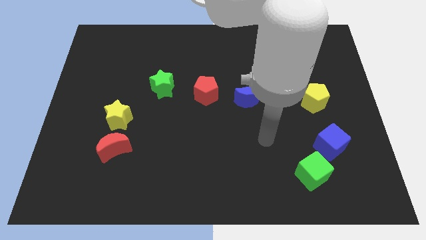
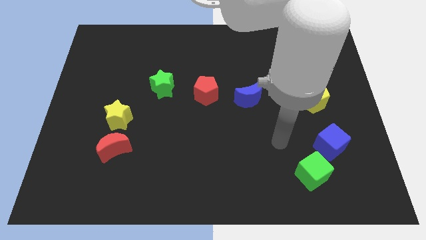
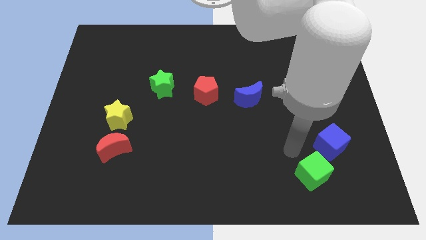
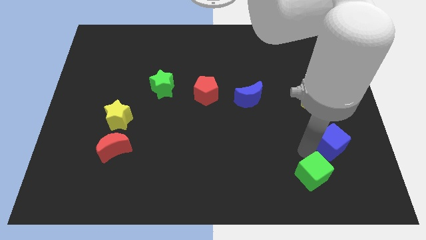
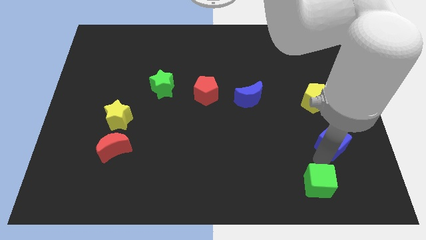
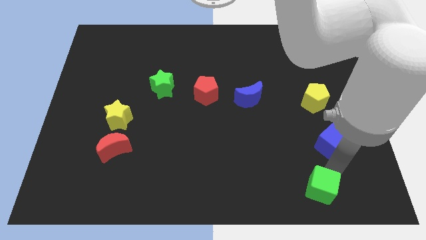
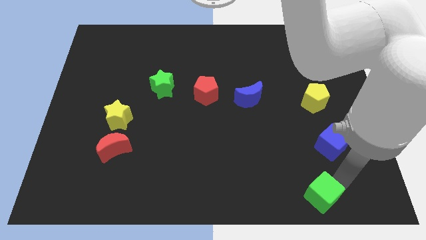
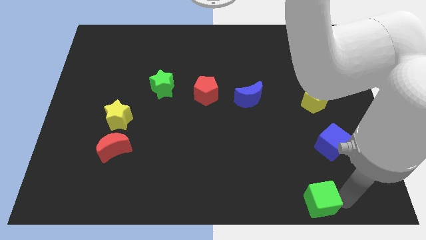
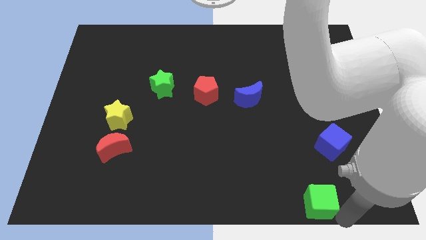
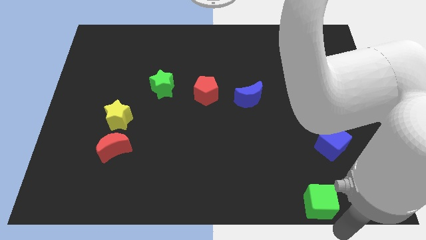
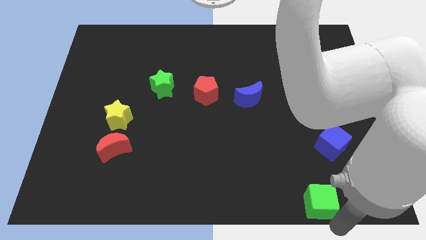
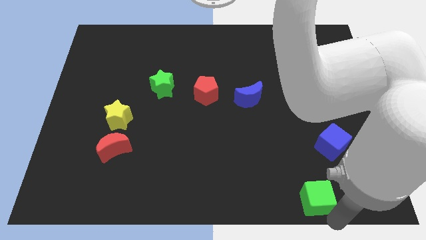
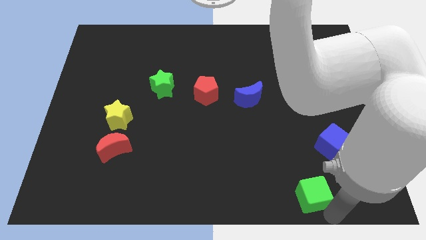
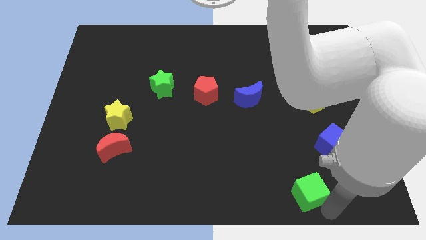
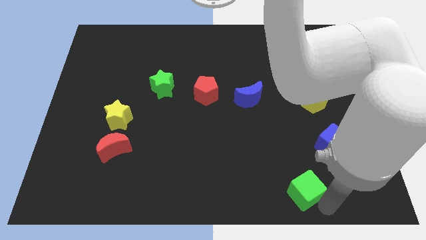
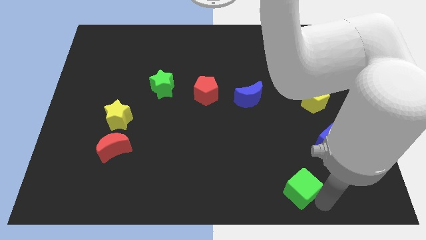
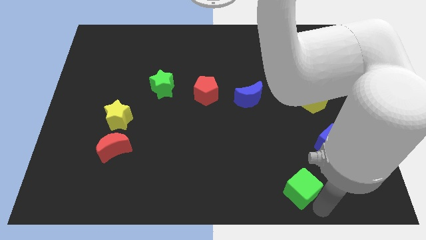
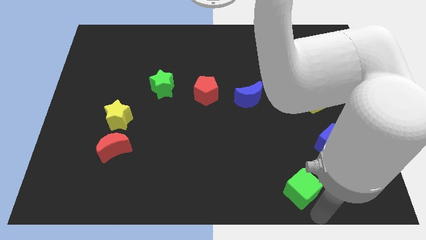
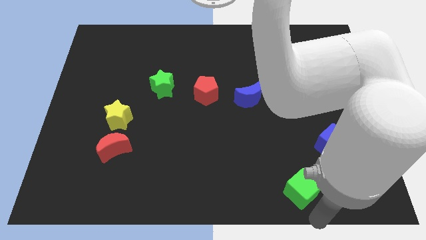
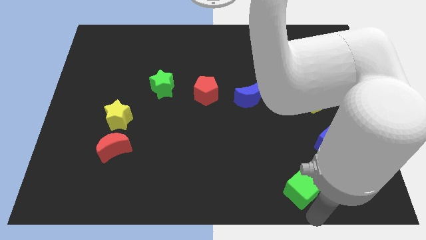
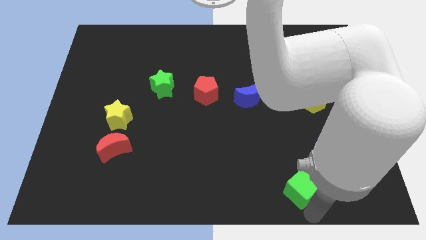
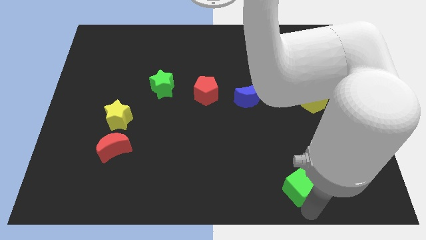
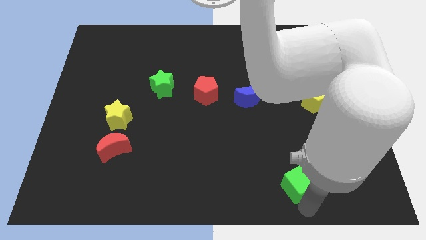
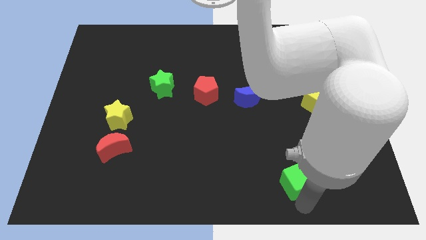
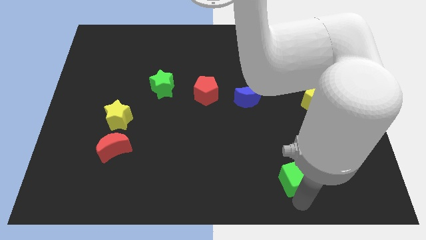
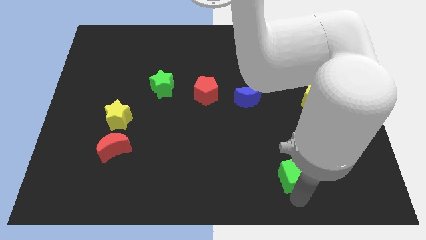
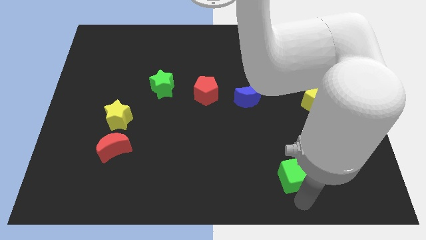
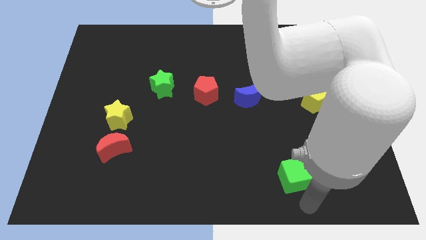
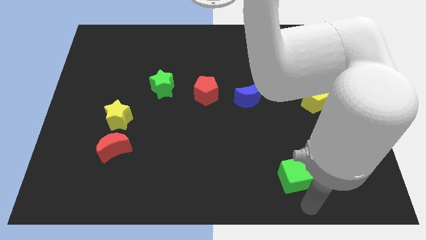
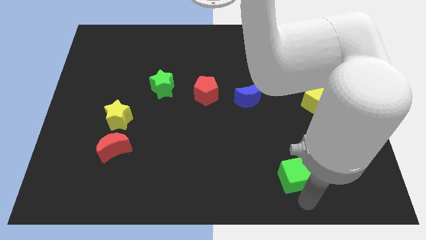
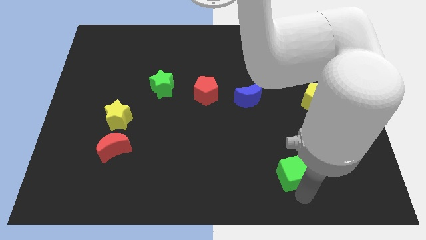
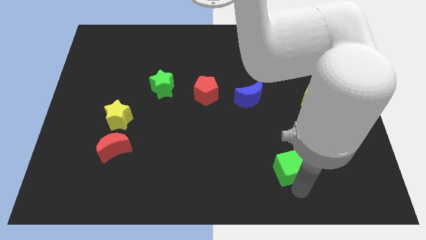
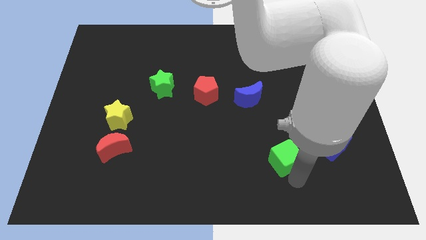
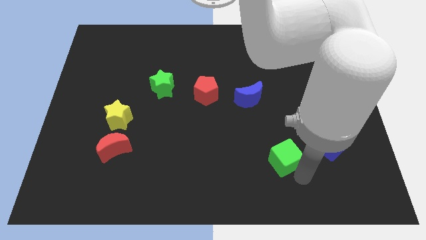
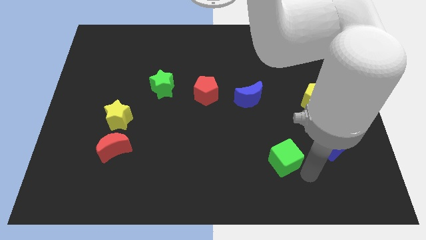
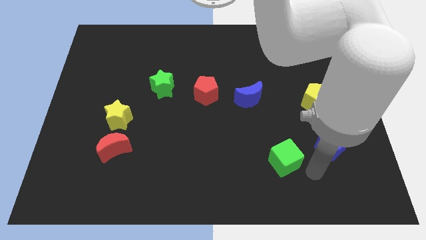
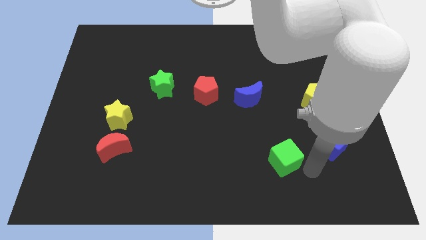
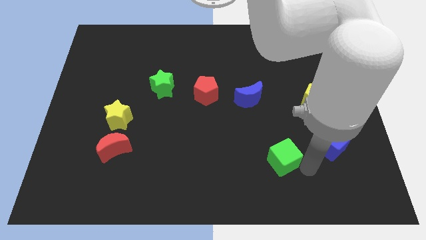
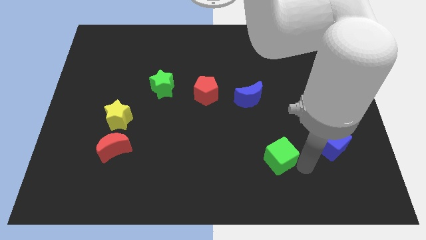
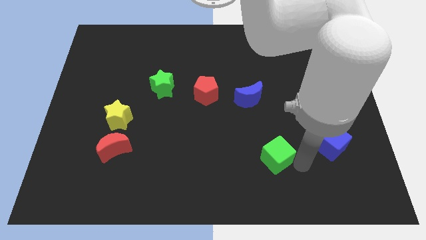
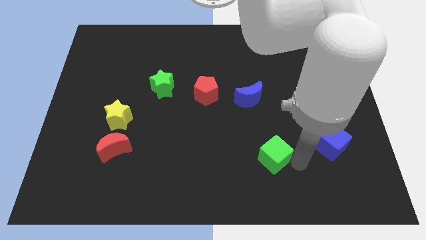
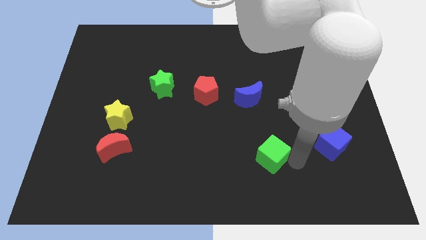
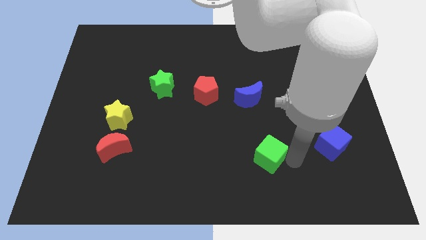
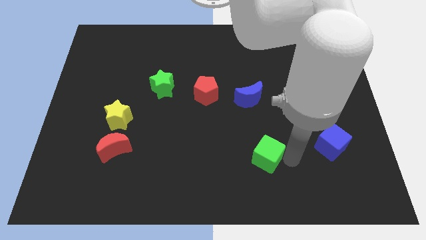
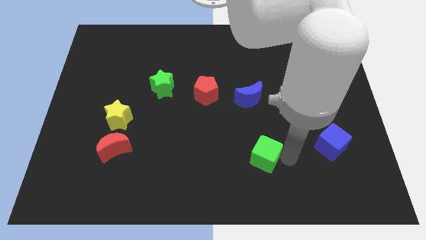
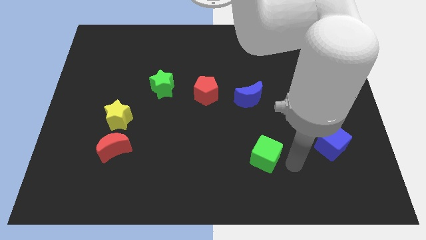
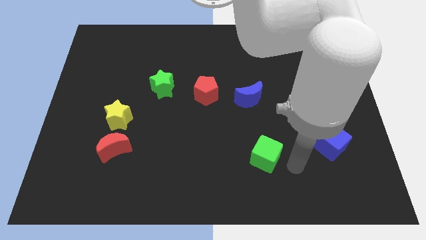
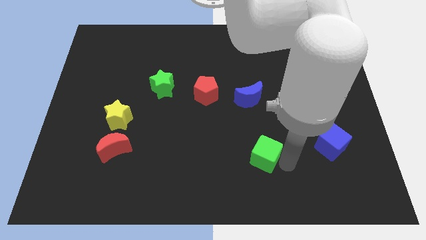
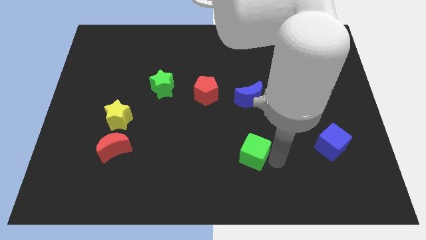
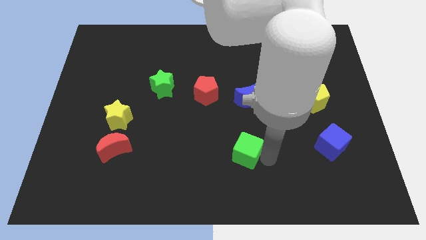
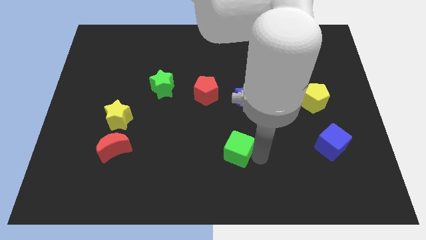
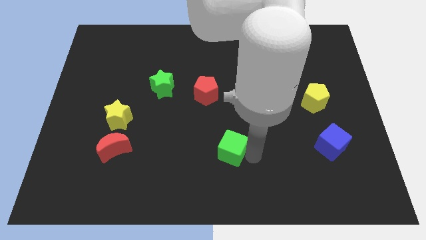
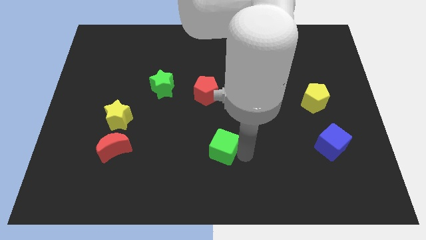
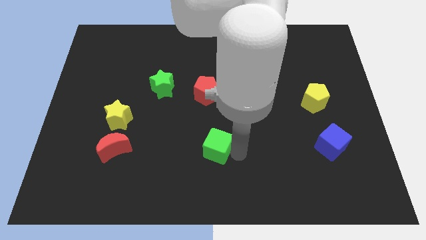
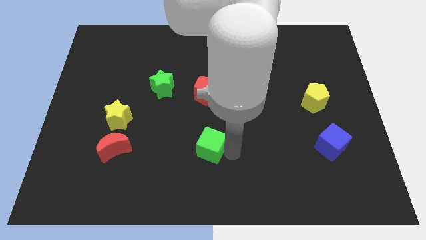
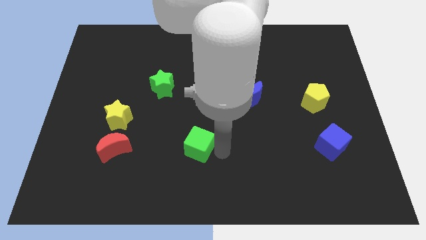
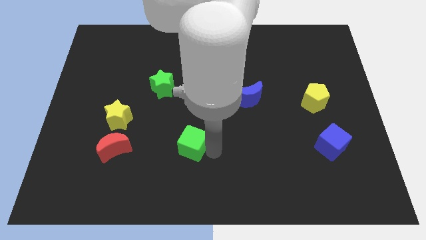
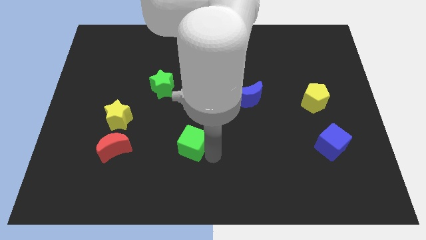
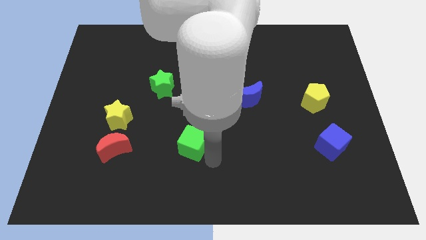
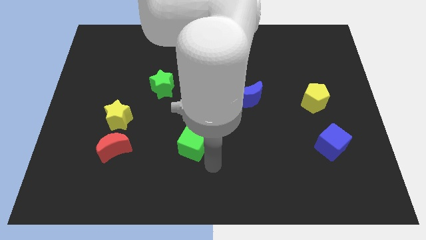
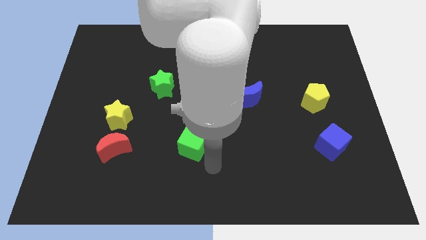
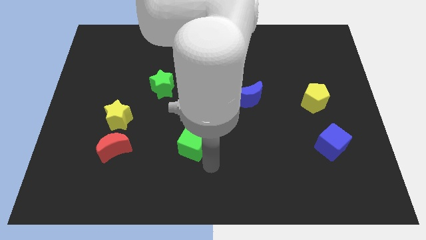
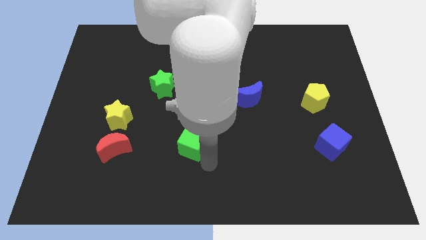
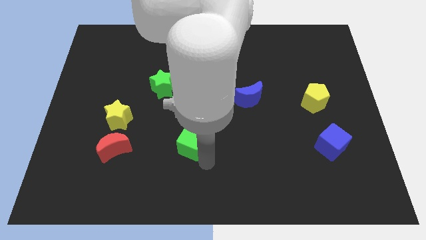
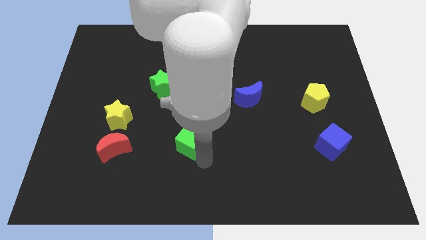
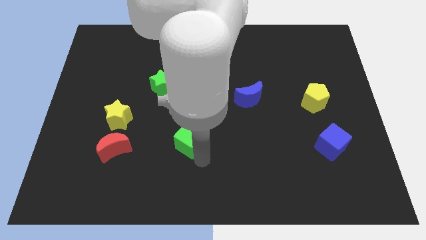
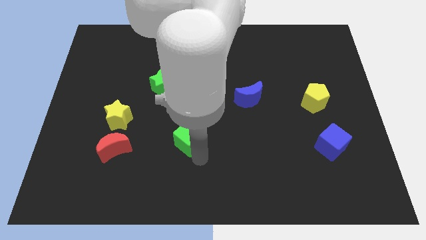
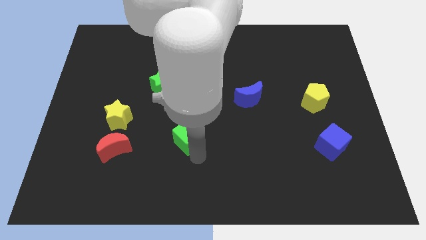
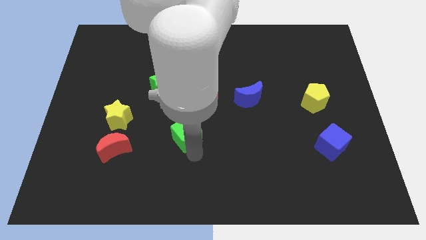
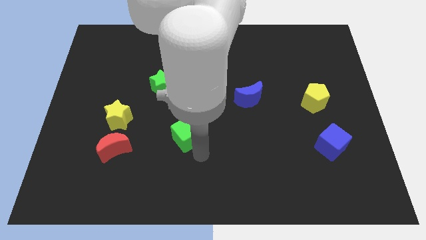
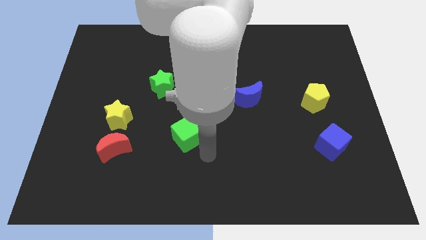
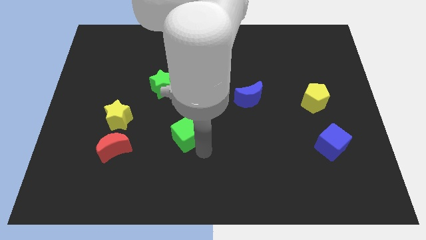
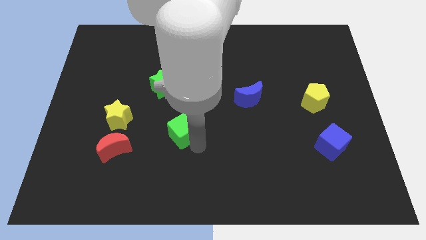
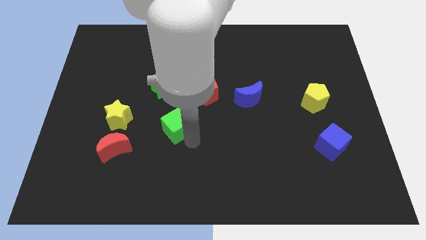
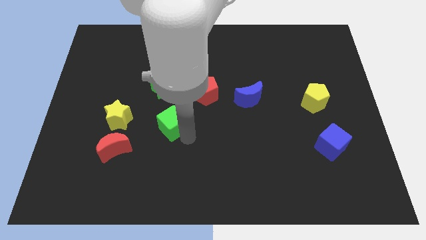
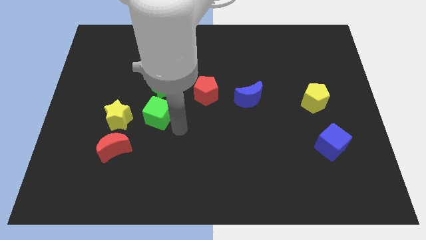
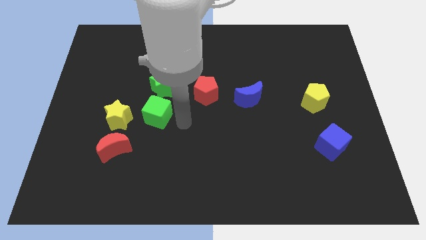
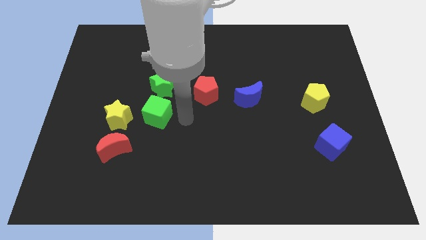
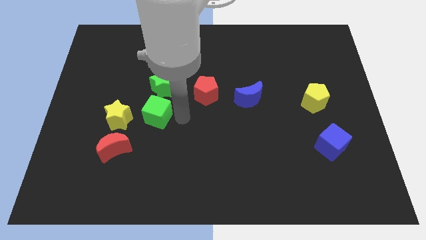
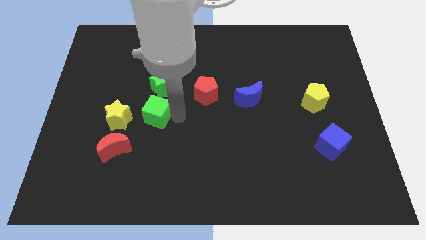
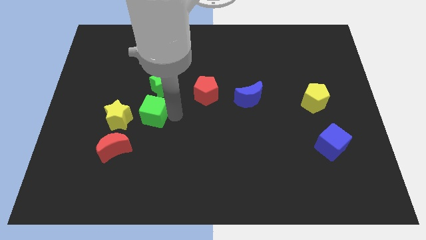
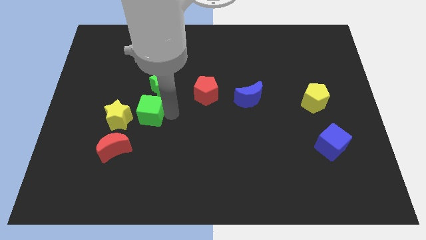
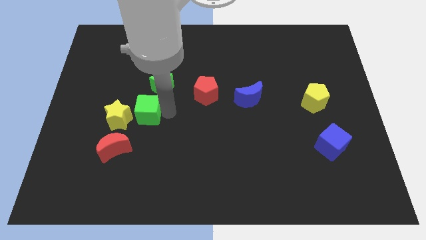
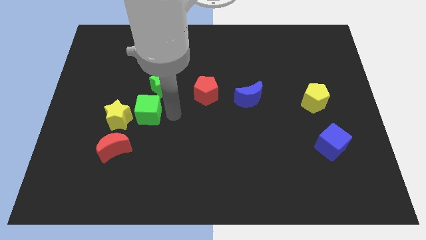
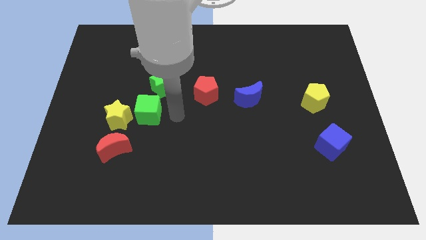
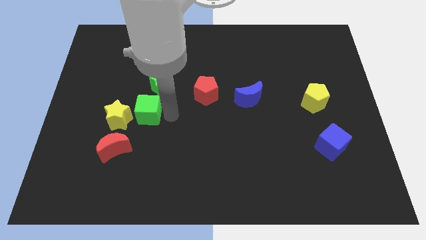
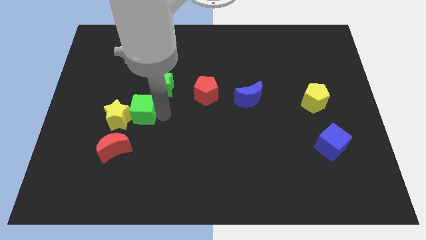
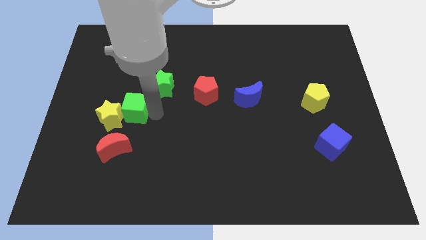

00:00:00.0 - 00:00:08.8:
move the green cube above the red moon
